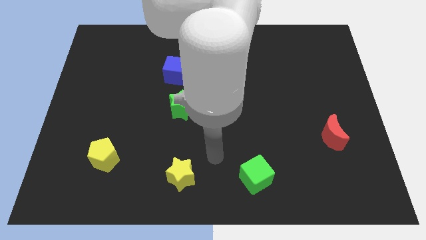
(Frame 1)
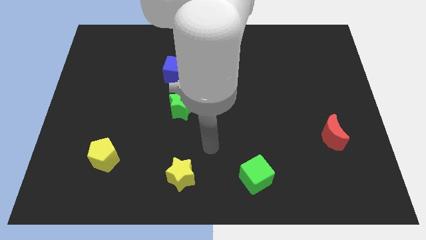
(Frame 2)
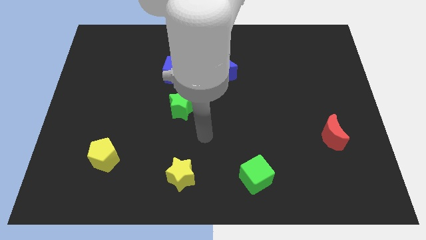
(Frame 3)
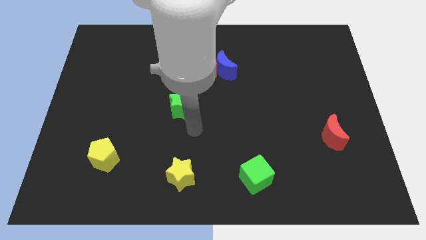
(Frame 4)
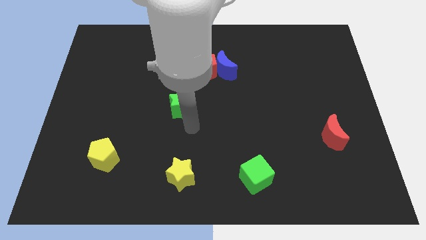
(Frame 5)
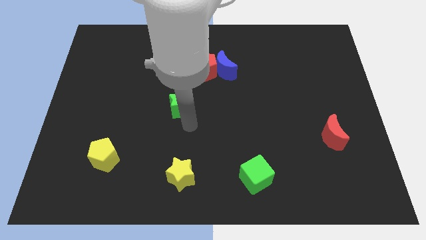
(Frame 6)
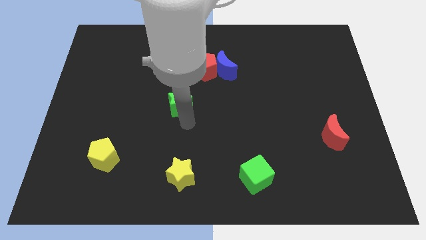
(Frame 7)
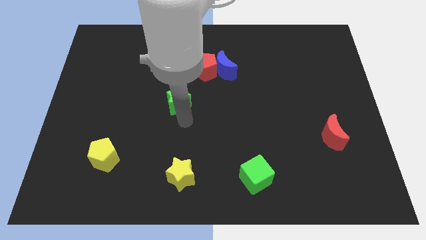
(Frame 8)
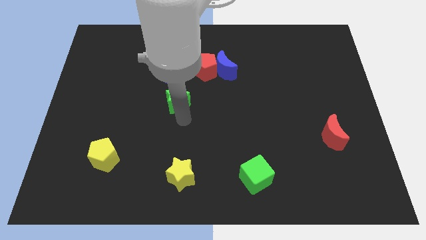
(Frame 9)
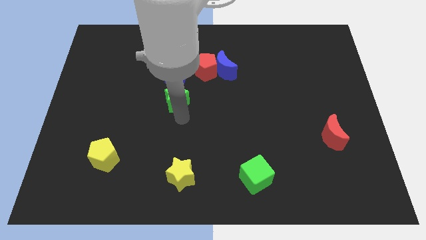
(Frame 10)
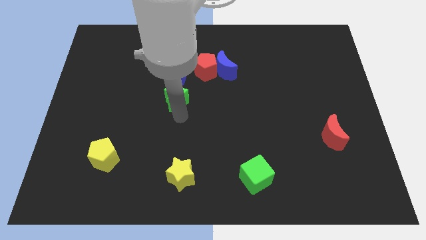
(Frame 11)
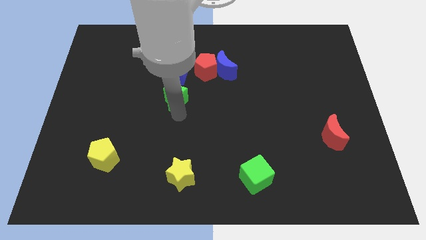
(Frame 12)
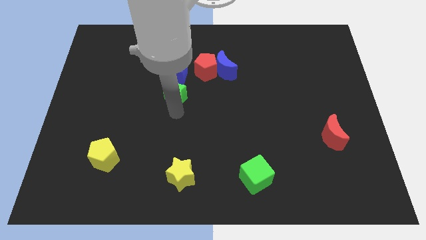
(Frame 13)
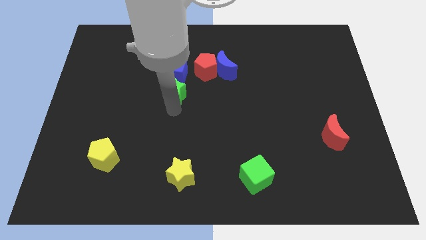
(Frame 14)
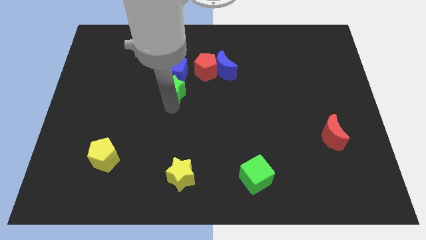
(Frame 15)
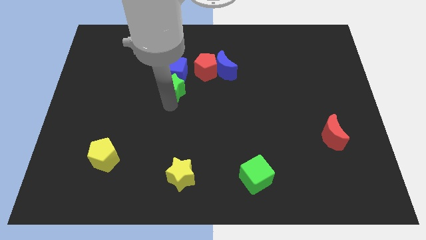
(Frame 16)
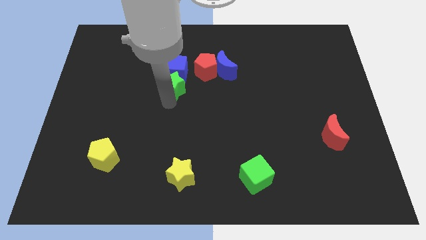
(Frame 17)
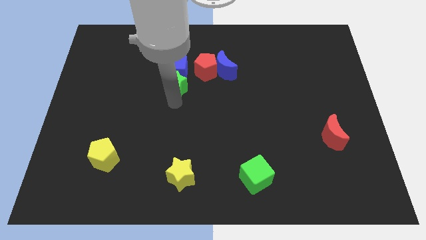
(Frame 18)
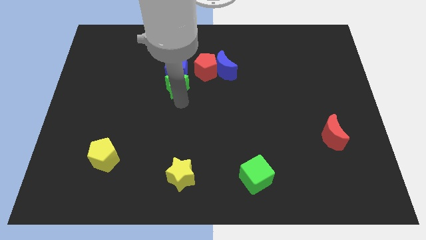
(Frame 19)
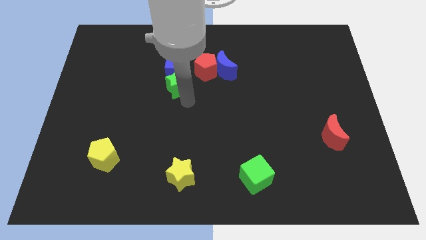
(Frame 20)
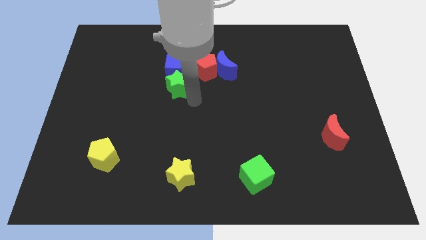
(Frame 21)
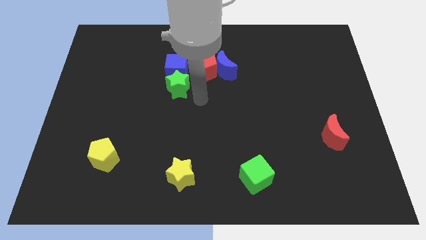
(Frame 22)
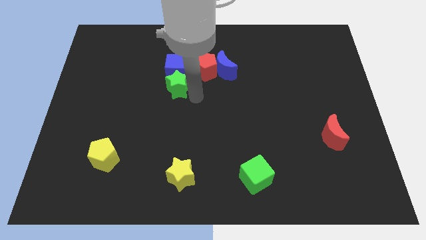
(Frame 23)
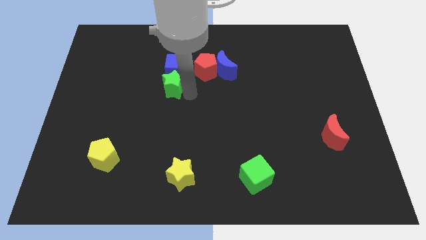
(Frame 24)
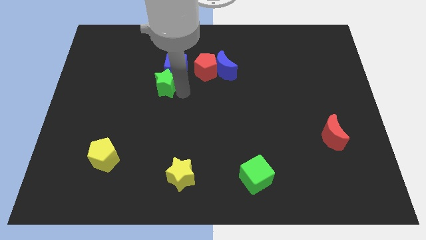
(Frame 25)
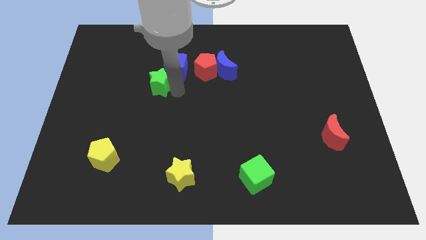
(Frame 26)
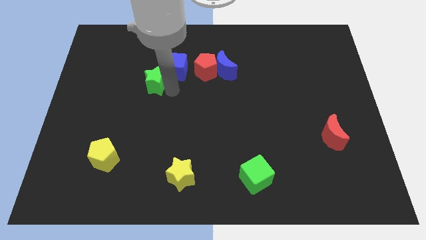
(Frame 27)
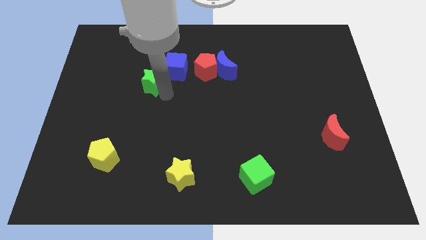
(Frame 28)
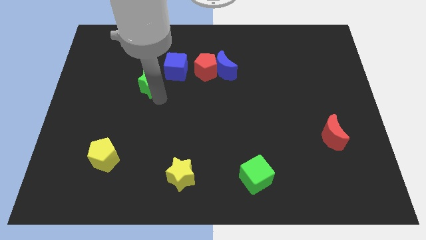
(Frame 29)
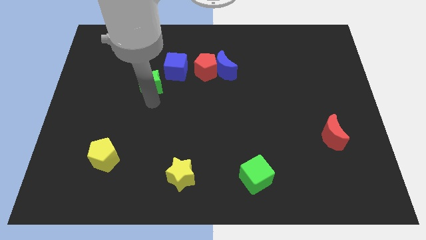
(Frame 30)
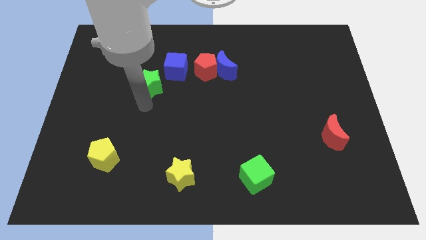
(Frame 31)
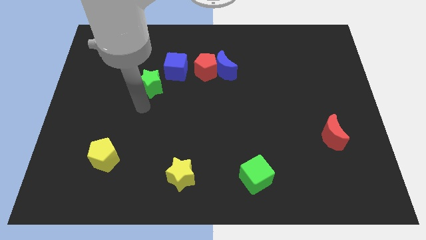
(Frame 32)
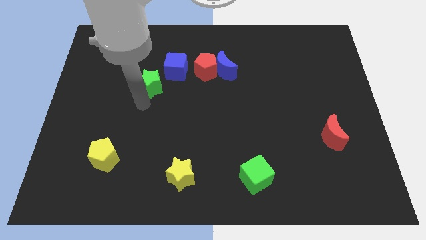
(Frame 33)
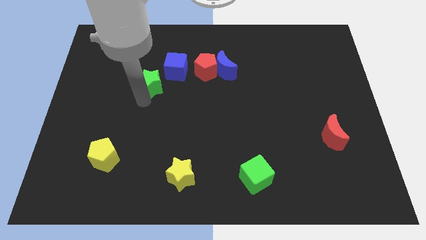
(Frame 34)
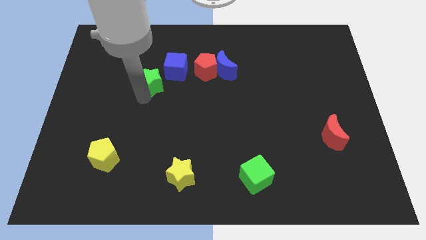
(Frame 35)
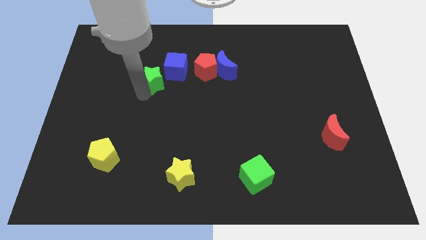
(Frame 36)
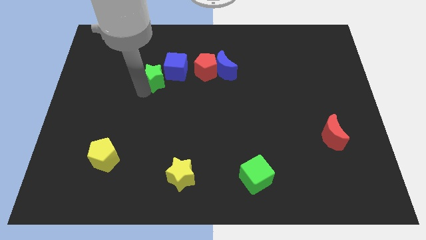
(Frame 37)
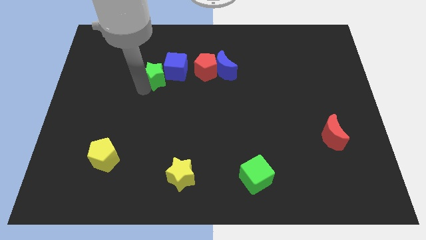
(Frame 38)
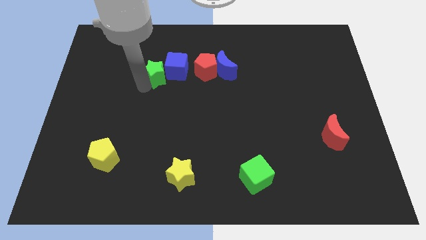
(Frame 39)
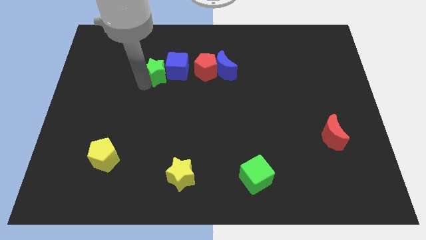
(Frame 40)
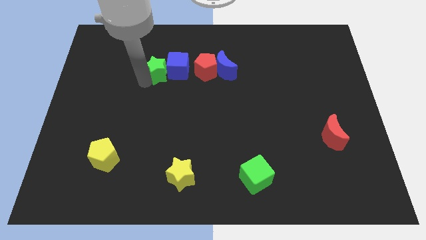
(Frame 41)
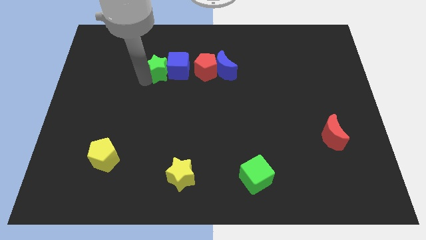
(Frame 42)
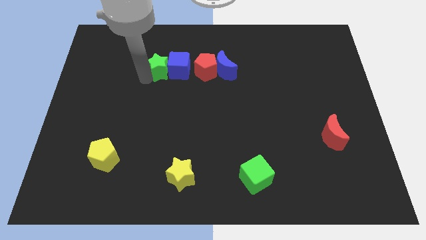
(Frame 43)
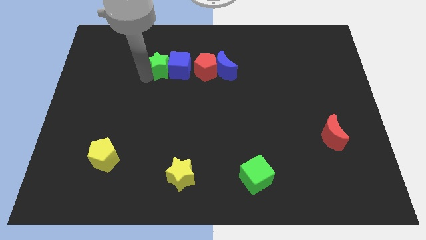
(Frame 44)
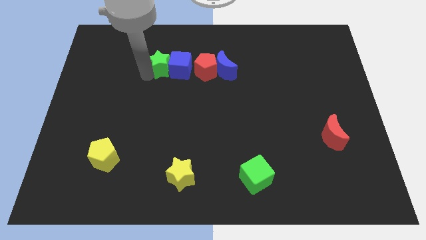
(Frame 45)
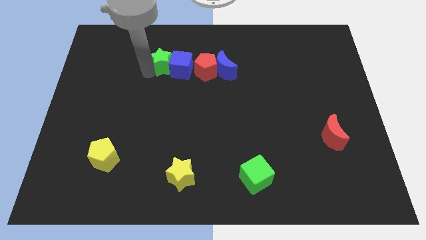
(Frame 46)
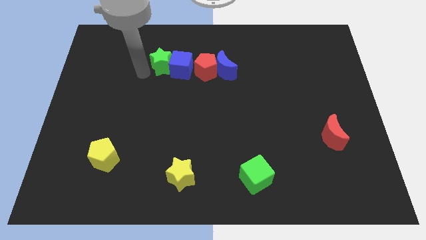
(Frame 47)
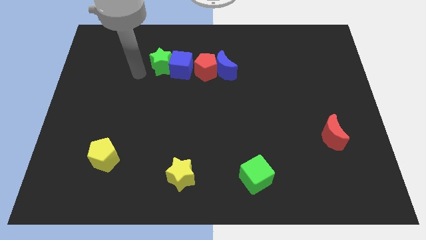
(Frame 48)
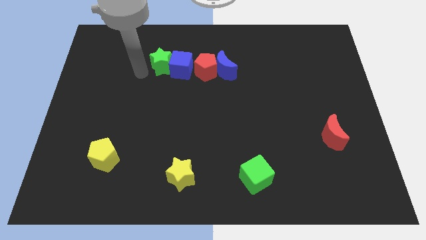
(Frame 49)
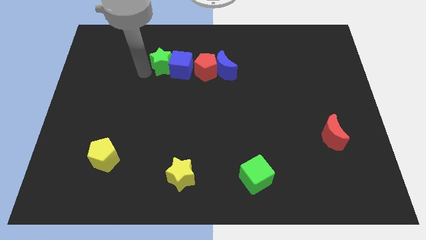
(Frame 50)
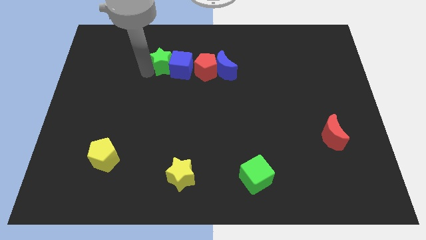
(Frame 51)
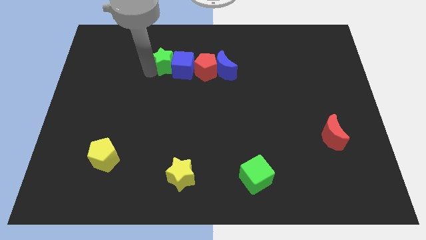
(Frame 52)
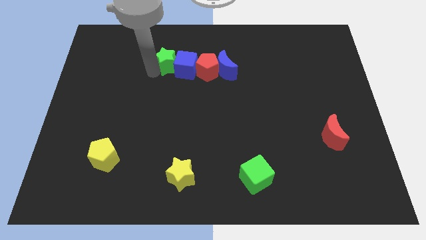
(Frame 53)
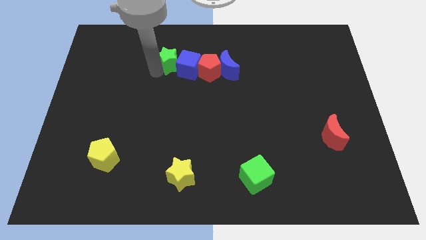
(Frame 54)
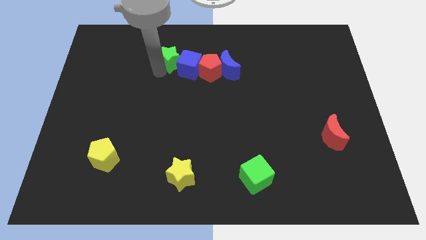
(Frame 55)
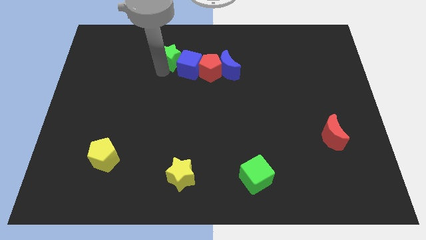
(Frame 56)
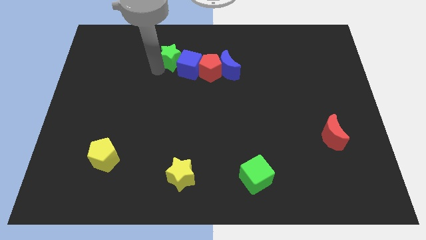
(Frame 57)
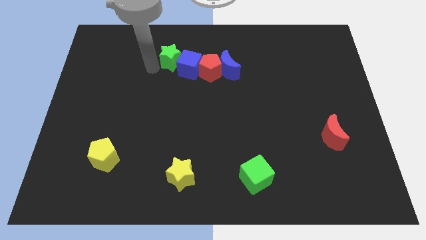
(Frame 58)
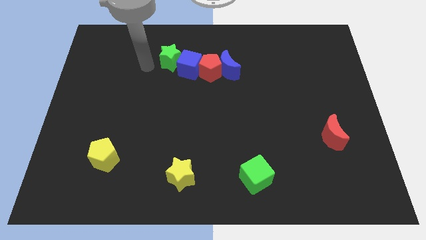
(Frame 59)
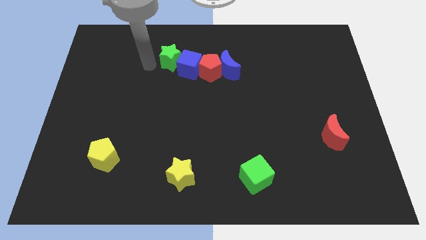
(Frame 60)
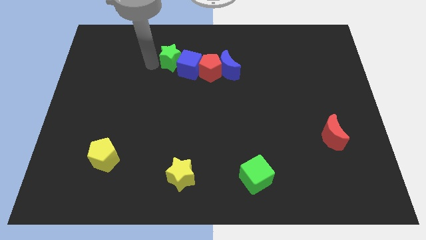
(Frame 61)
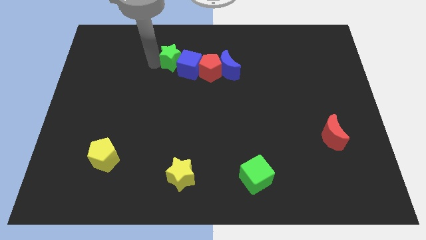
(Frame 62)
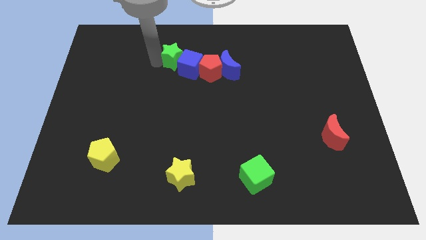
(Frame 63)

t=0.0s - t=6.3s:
push the green star to the top left of the red pentagon

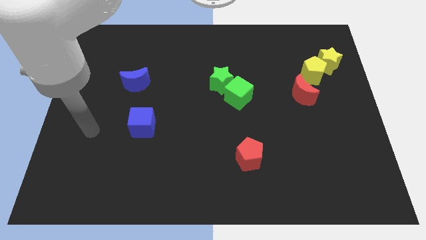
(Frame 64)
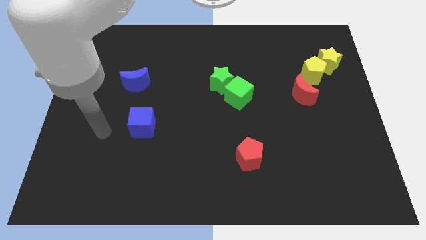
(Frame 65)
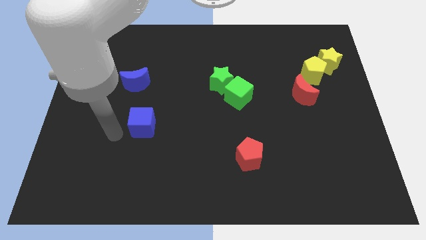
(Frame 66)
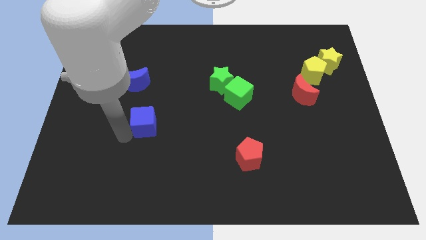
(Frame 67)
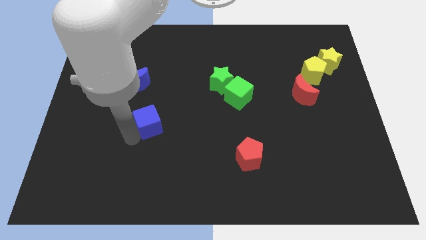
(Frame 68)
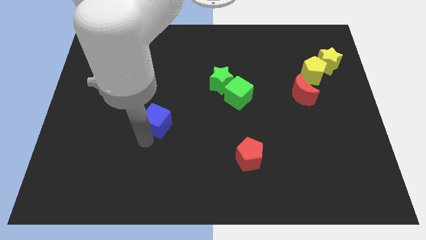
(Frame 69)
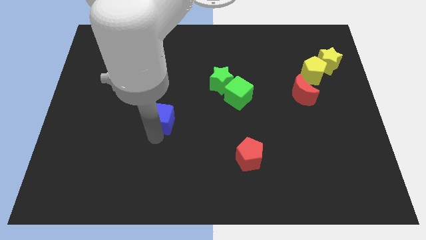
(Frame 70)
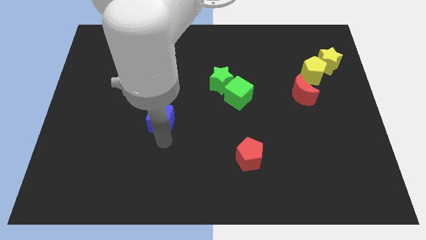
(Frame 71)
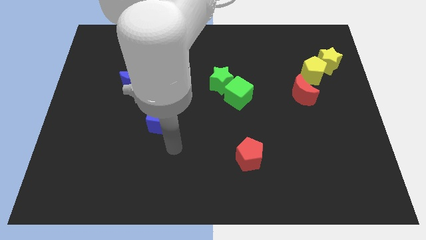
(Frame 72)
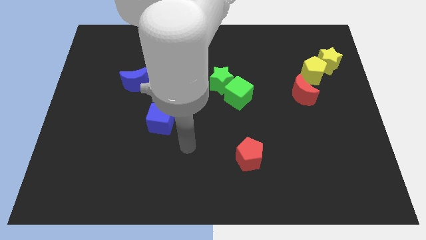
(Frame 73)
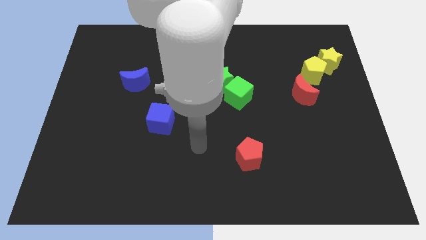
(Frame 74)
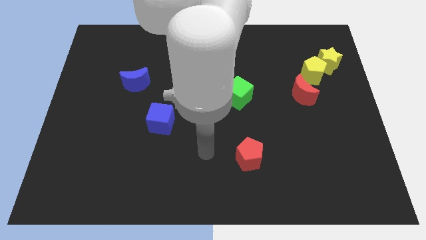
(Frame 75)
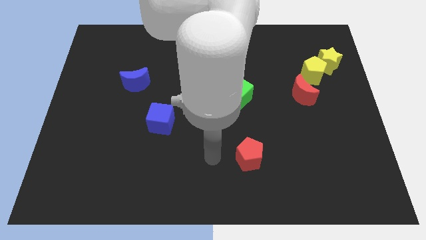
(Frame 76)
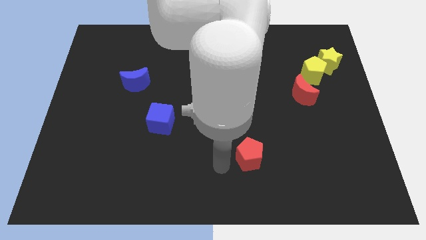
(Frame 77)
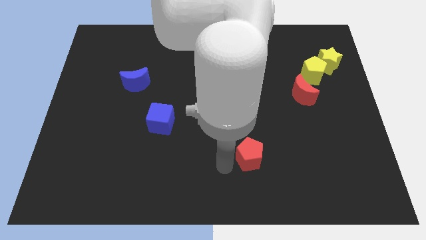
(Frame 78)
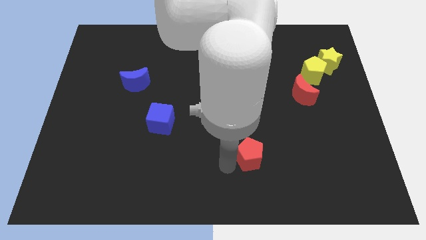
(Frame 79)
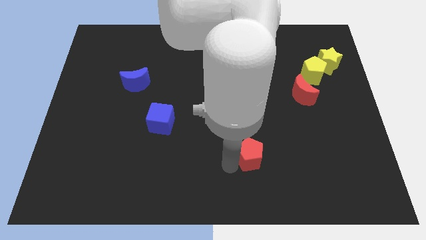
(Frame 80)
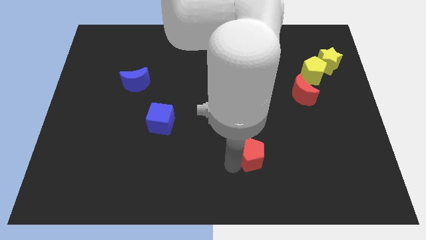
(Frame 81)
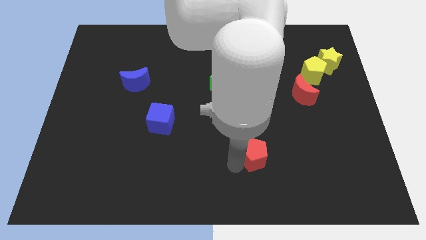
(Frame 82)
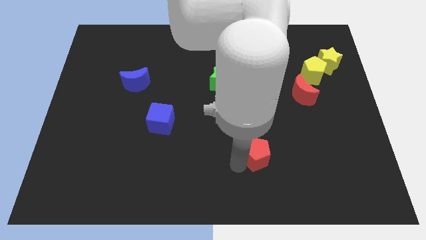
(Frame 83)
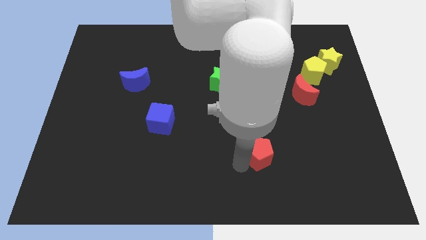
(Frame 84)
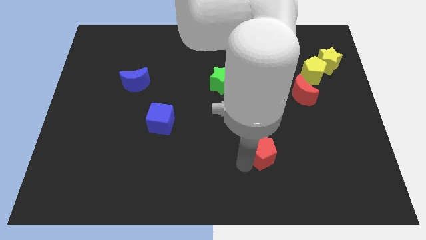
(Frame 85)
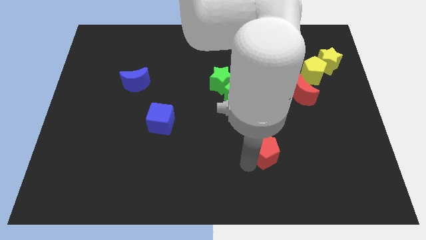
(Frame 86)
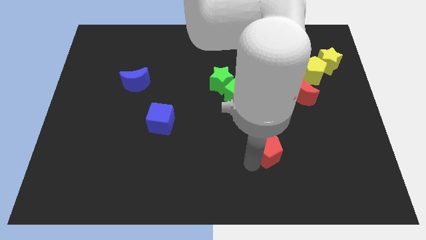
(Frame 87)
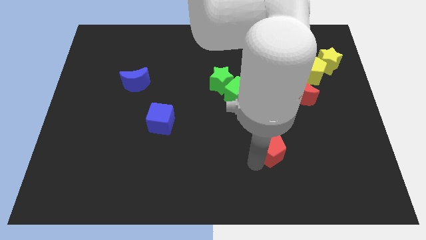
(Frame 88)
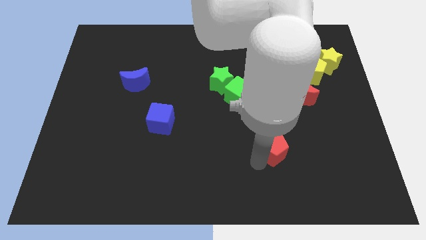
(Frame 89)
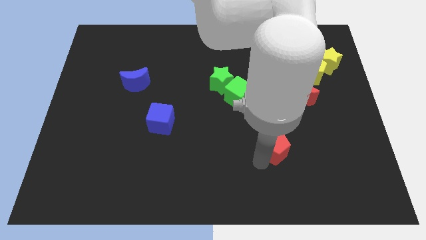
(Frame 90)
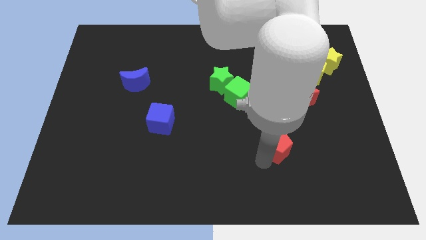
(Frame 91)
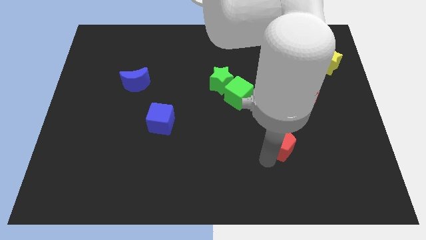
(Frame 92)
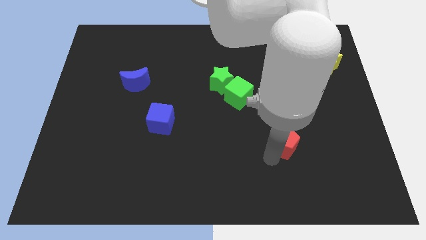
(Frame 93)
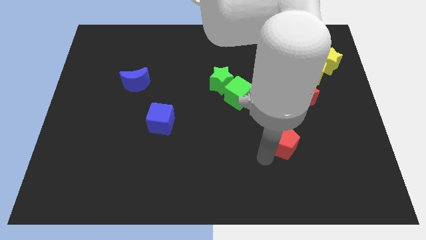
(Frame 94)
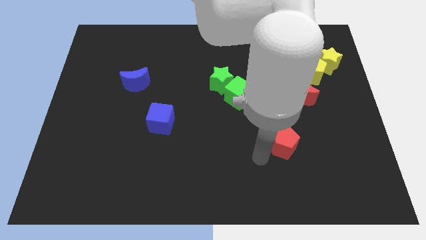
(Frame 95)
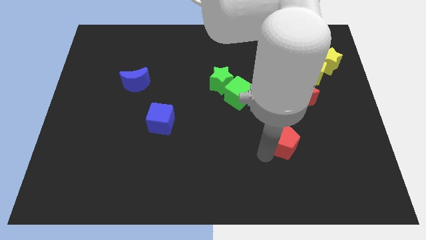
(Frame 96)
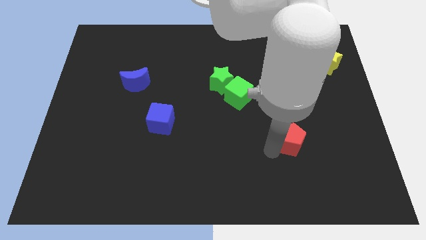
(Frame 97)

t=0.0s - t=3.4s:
slide the red pentagon to the bottom side of the red moon
